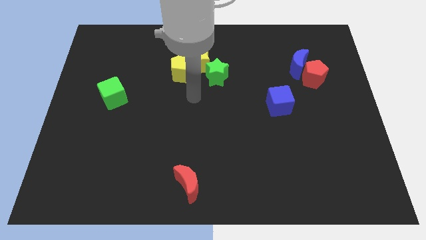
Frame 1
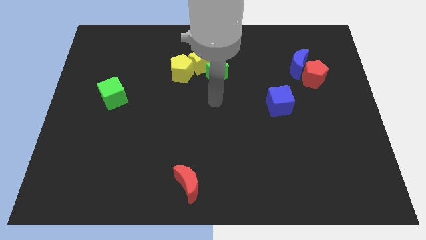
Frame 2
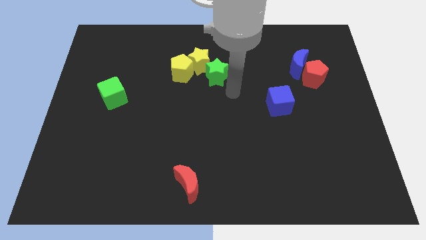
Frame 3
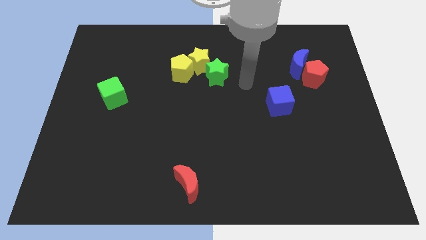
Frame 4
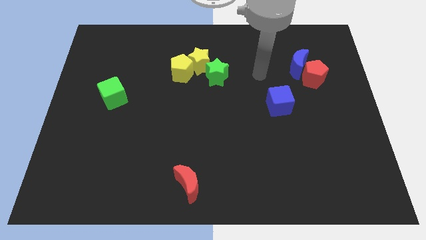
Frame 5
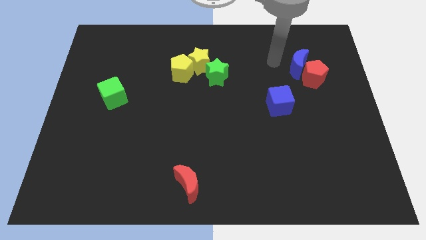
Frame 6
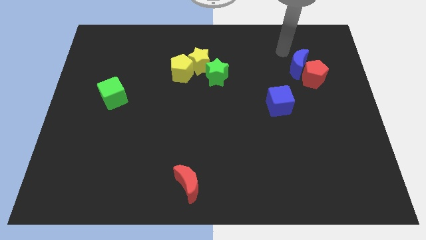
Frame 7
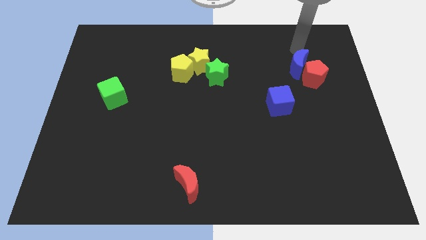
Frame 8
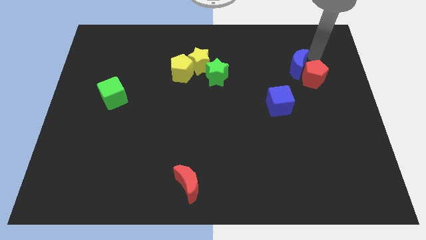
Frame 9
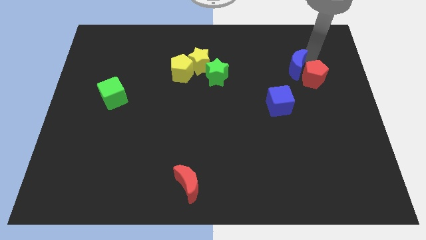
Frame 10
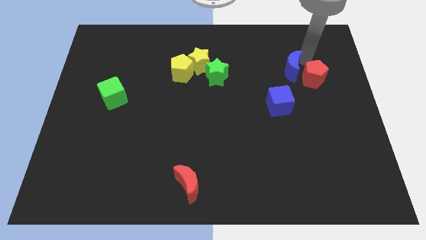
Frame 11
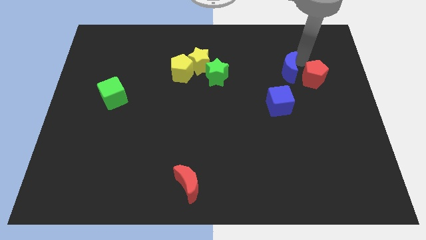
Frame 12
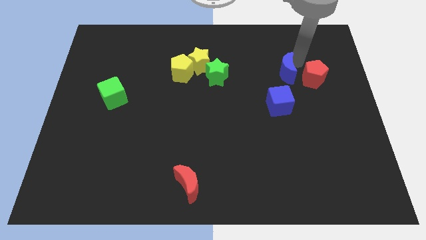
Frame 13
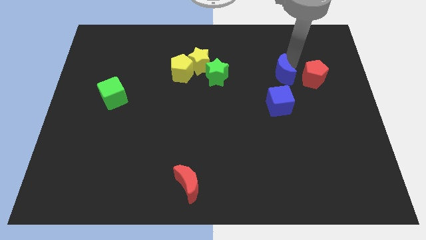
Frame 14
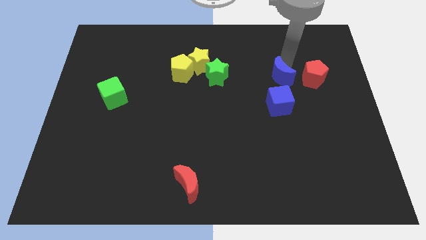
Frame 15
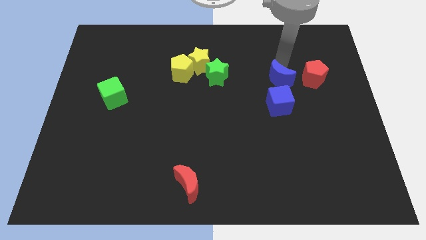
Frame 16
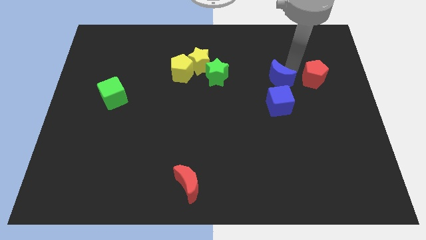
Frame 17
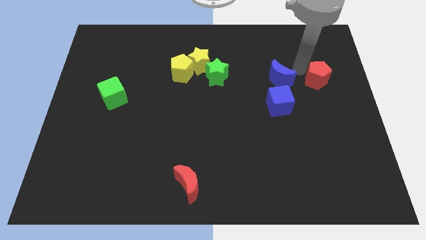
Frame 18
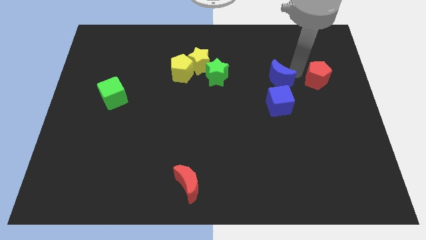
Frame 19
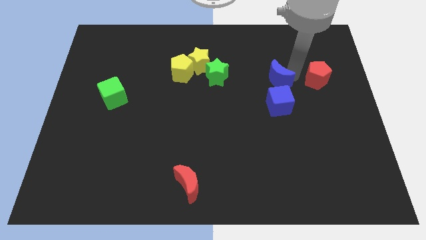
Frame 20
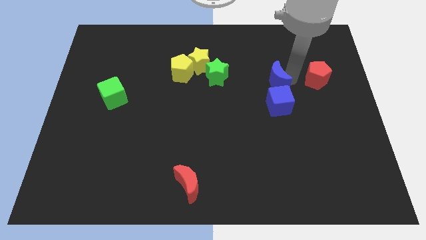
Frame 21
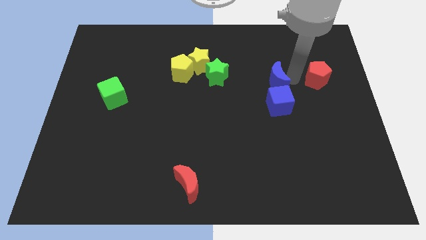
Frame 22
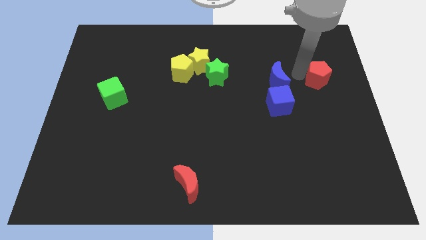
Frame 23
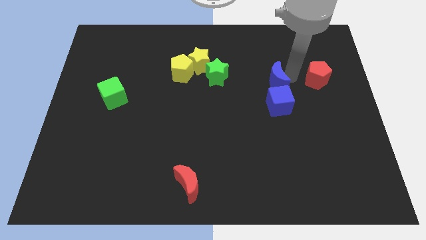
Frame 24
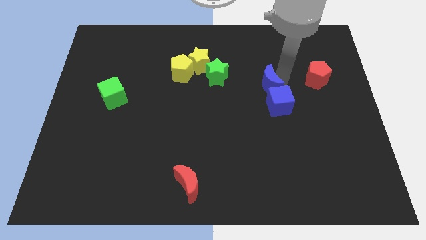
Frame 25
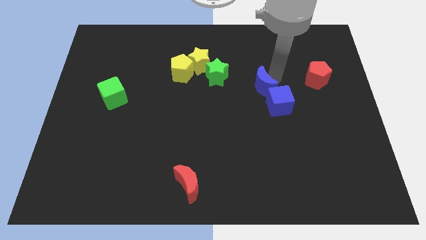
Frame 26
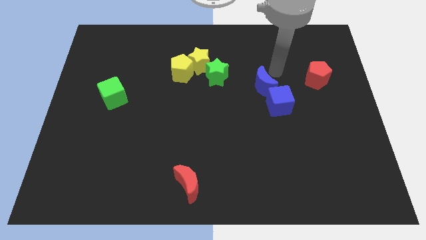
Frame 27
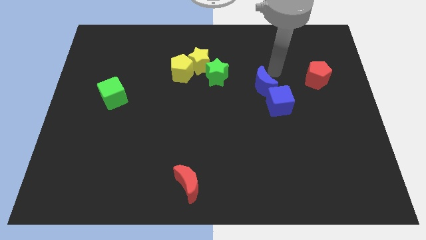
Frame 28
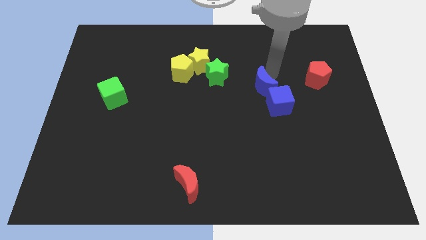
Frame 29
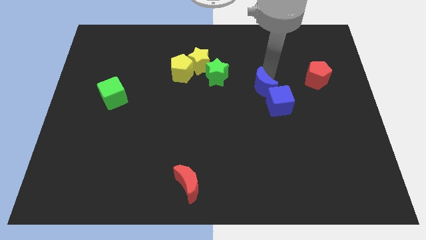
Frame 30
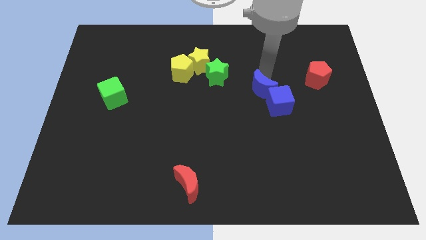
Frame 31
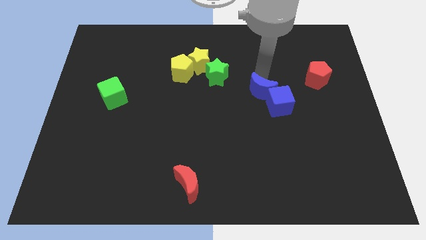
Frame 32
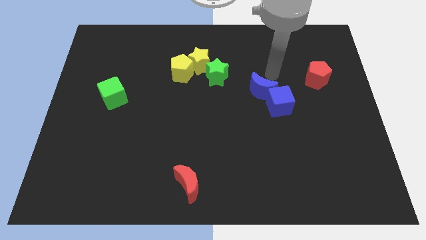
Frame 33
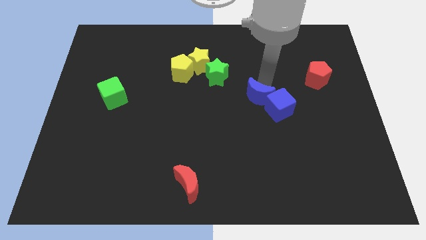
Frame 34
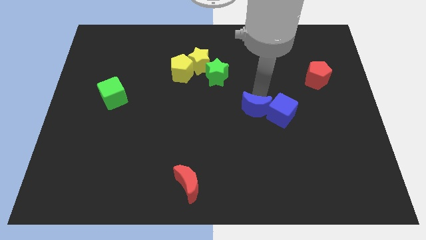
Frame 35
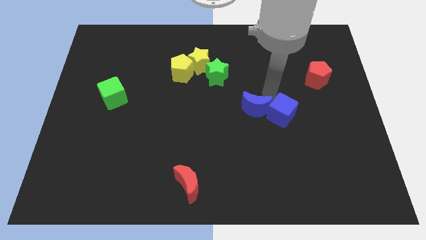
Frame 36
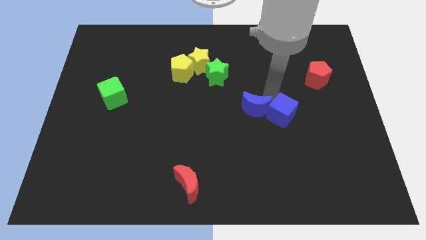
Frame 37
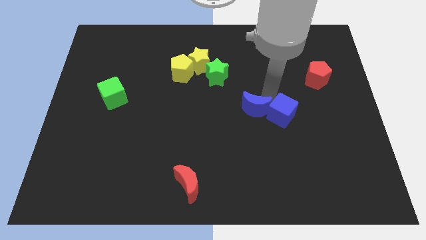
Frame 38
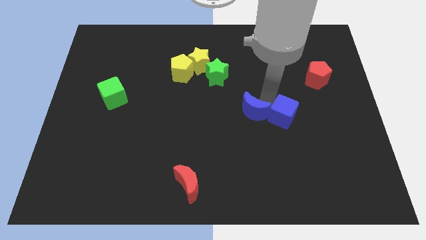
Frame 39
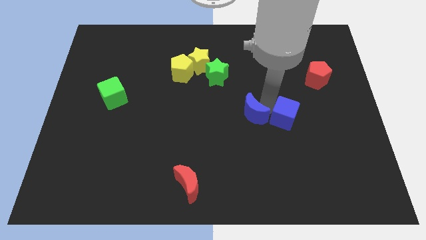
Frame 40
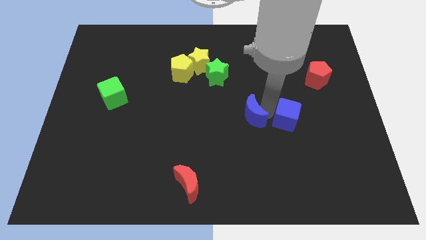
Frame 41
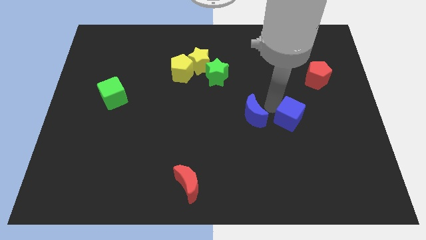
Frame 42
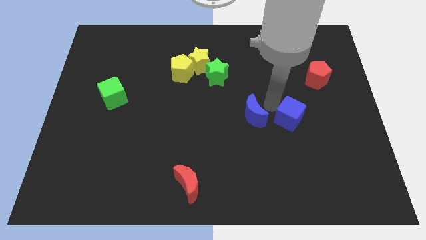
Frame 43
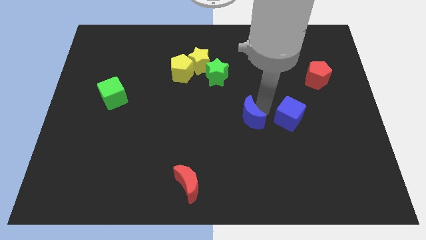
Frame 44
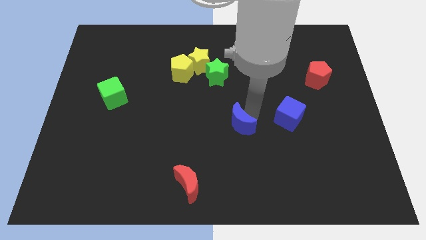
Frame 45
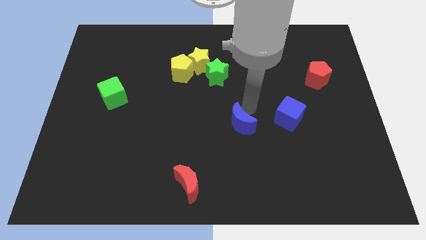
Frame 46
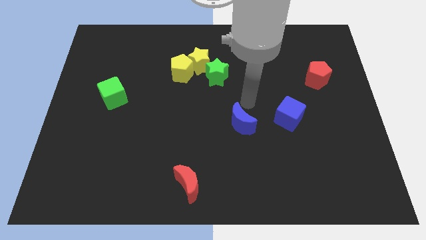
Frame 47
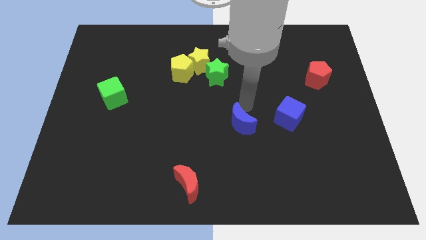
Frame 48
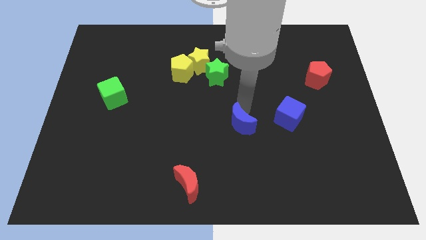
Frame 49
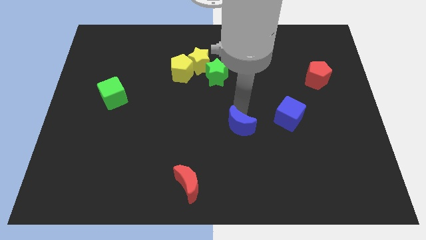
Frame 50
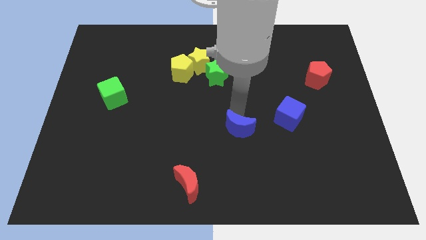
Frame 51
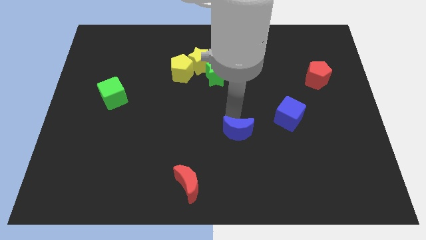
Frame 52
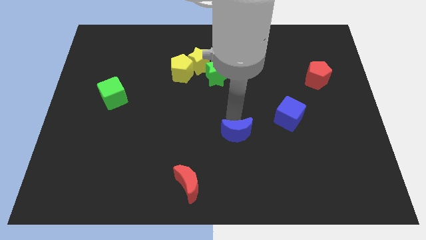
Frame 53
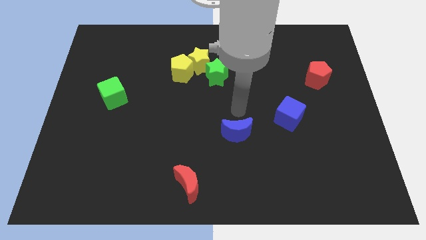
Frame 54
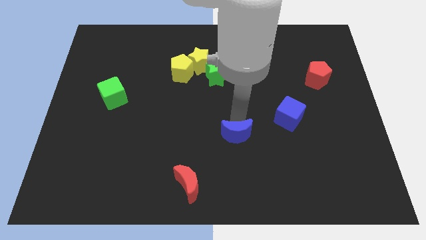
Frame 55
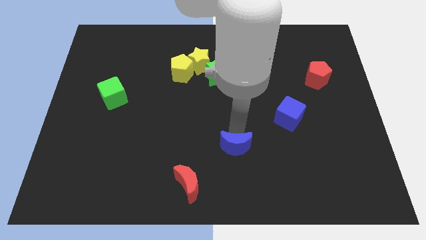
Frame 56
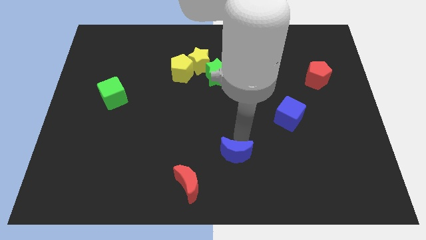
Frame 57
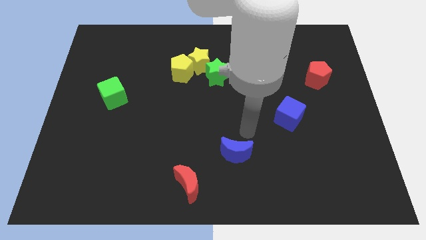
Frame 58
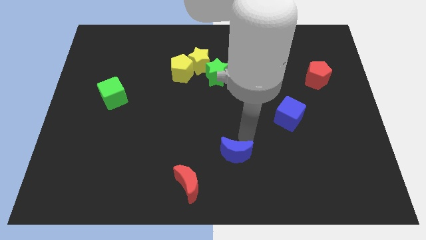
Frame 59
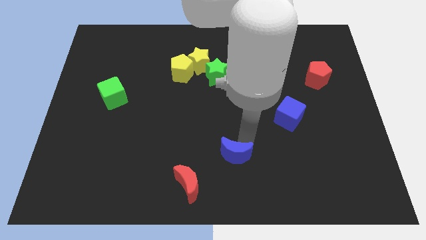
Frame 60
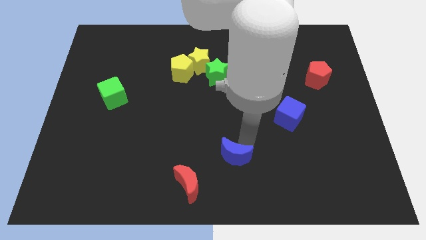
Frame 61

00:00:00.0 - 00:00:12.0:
move the blue moon to the bottom side
